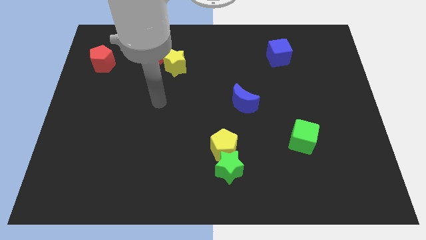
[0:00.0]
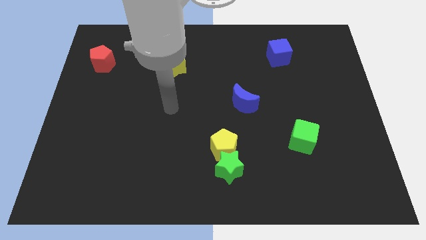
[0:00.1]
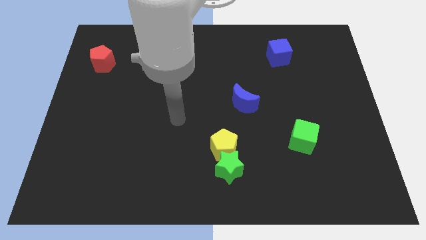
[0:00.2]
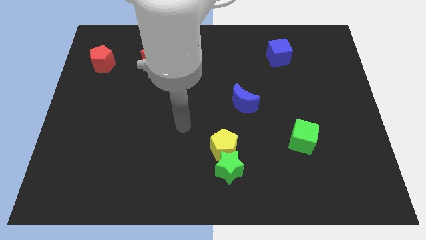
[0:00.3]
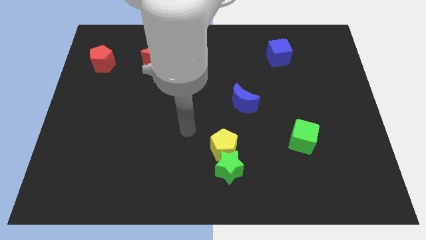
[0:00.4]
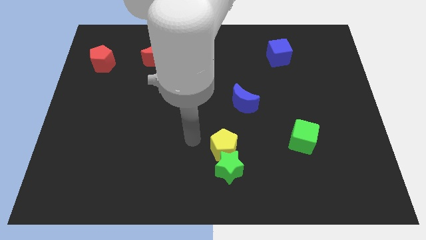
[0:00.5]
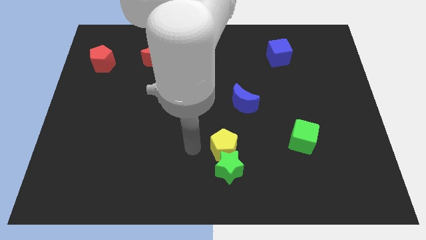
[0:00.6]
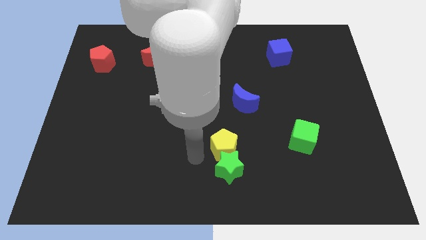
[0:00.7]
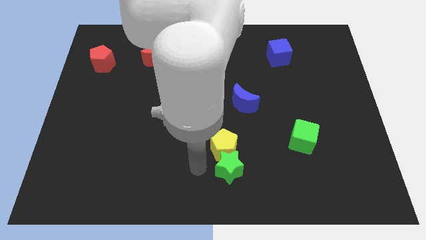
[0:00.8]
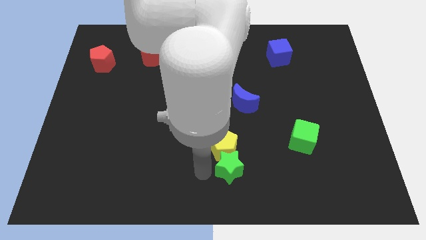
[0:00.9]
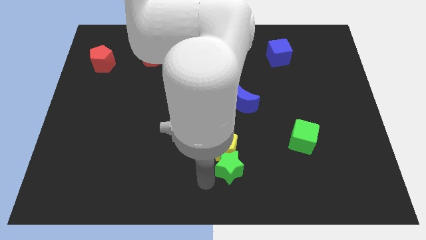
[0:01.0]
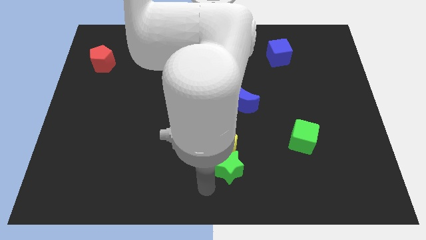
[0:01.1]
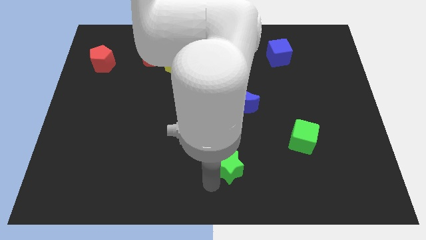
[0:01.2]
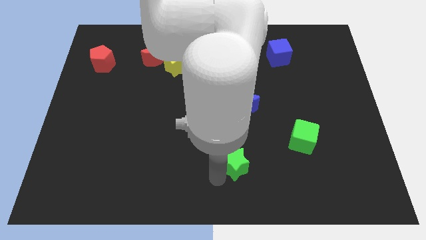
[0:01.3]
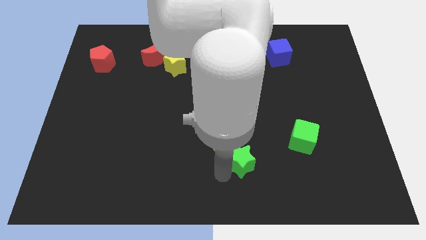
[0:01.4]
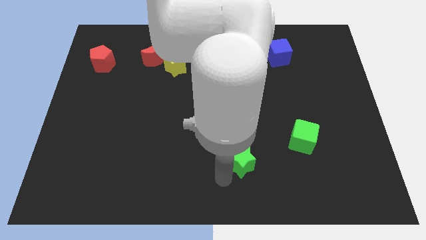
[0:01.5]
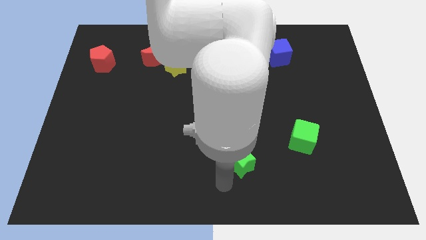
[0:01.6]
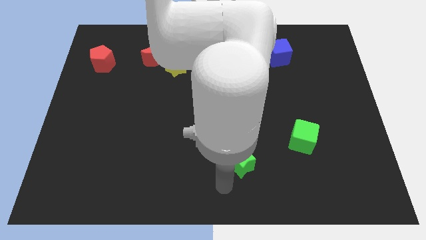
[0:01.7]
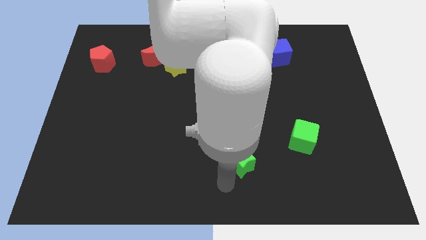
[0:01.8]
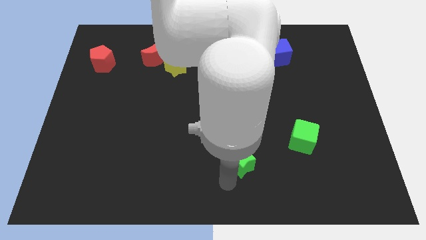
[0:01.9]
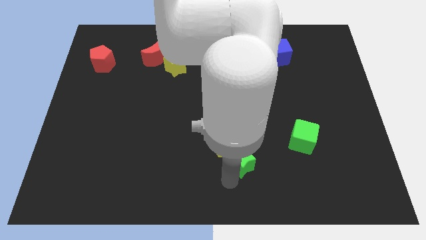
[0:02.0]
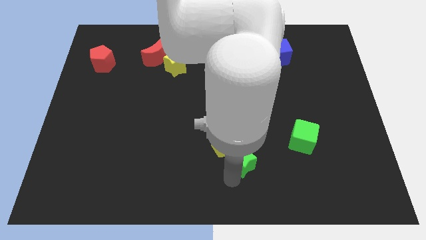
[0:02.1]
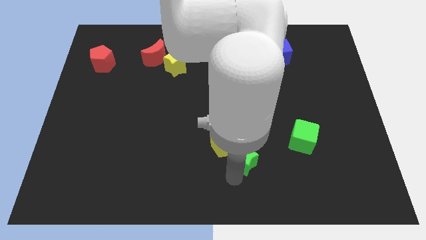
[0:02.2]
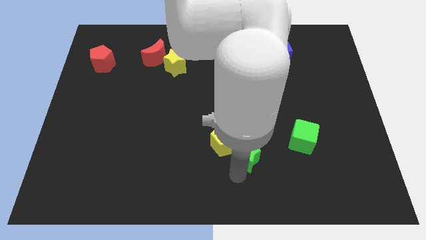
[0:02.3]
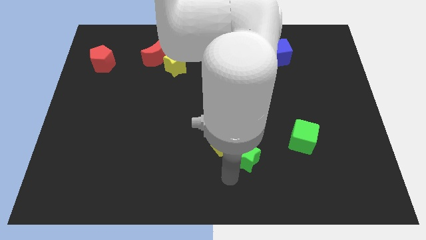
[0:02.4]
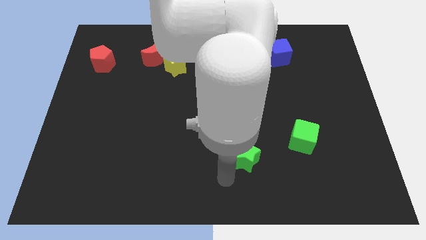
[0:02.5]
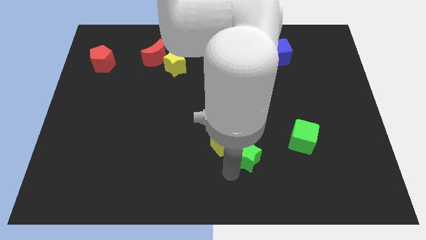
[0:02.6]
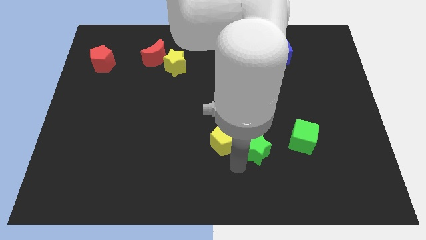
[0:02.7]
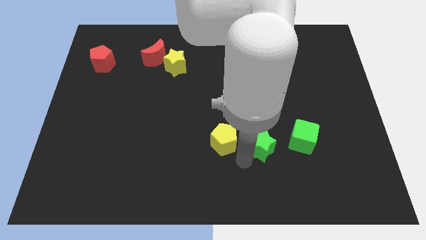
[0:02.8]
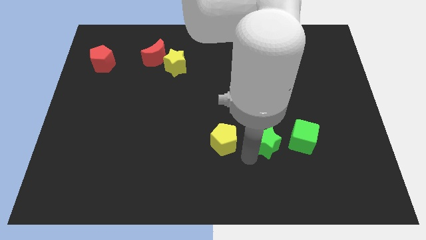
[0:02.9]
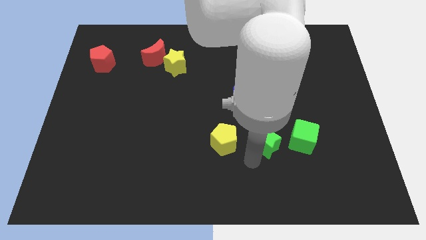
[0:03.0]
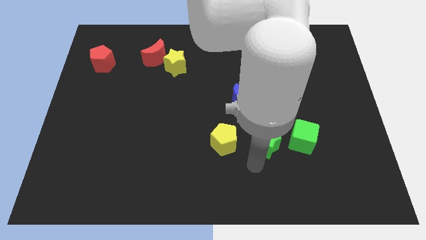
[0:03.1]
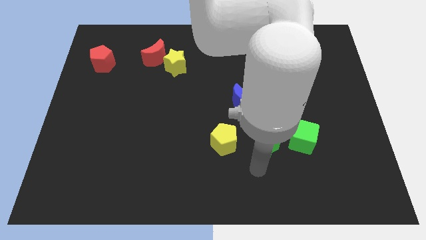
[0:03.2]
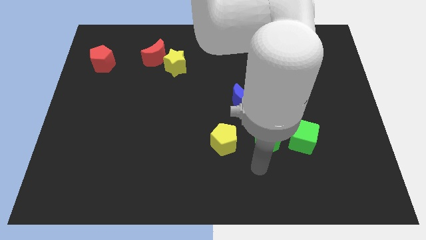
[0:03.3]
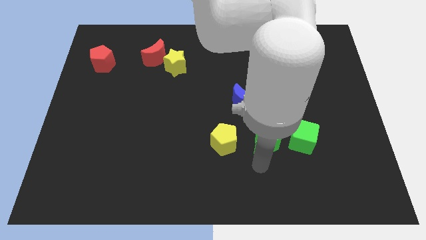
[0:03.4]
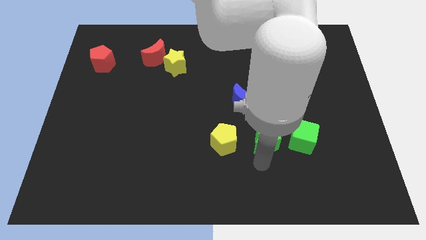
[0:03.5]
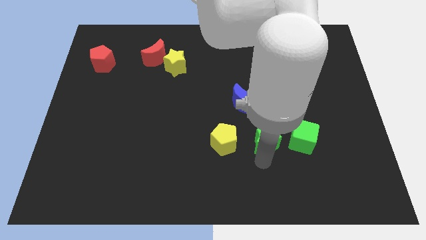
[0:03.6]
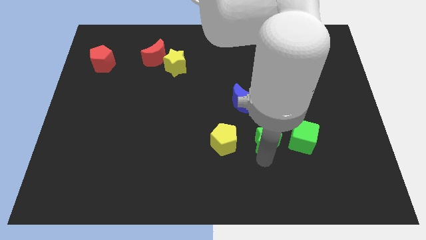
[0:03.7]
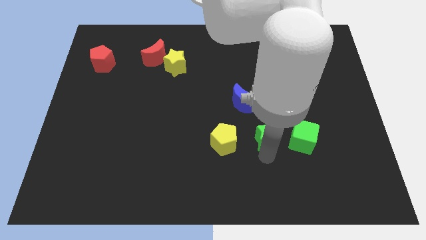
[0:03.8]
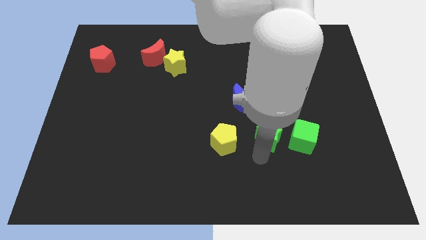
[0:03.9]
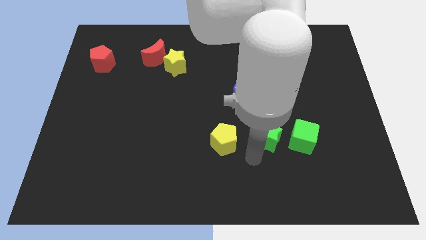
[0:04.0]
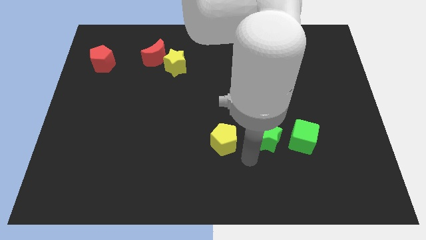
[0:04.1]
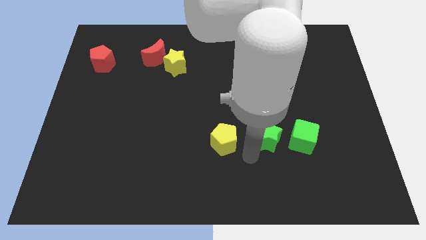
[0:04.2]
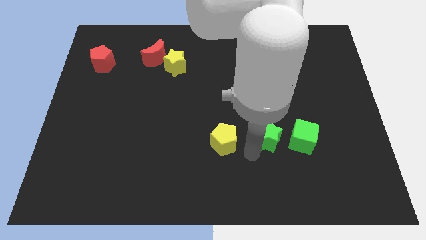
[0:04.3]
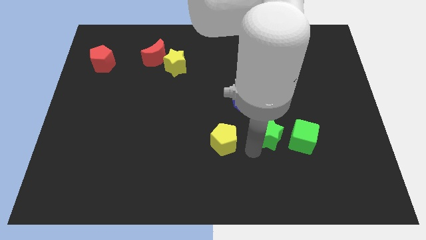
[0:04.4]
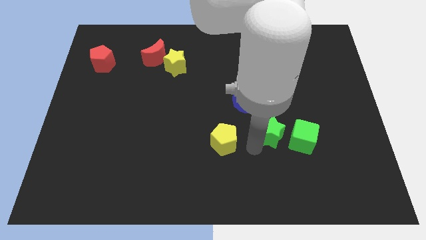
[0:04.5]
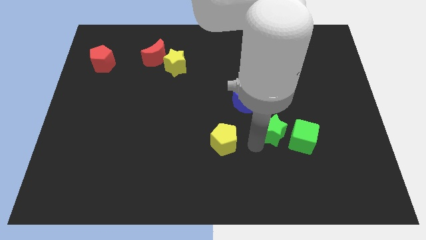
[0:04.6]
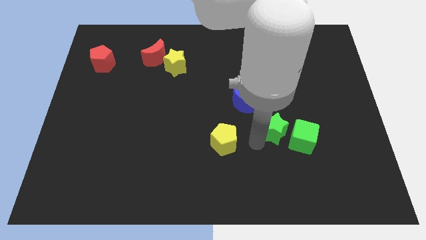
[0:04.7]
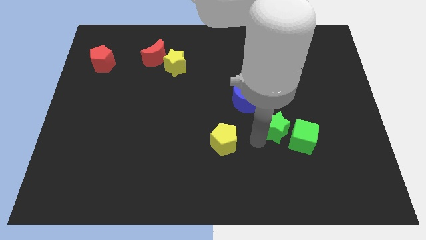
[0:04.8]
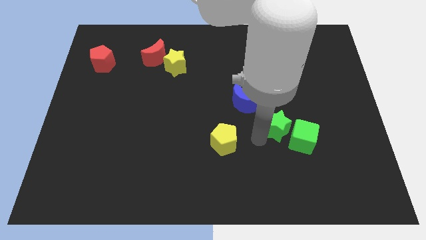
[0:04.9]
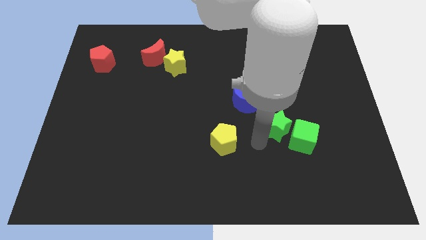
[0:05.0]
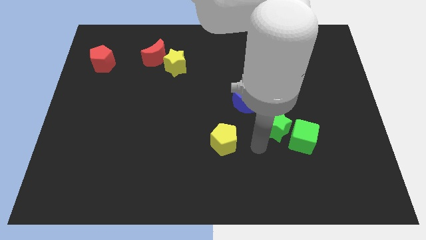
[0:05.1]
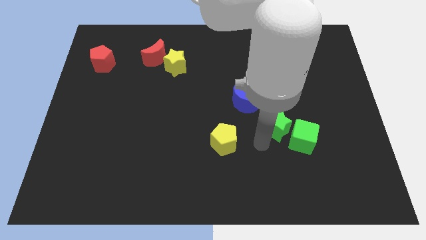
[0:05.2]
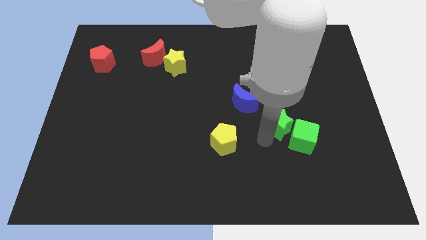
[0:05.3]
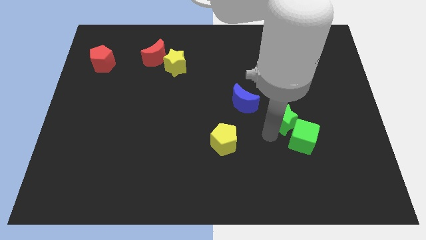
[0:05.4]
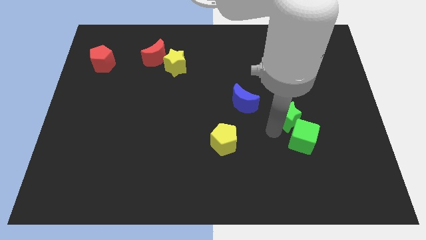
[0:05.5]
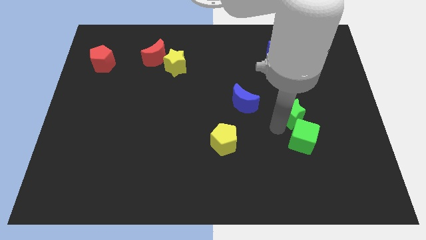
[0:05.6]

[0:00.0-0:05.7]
push the green star upwards and then to the right

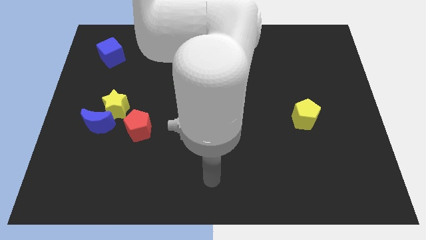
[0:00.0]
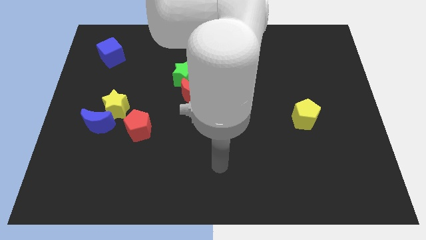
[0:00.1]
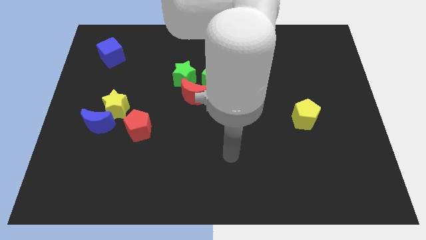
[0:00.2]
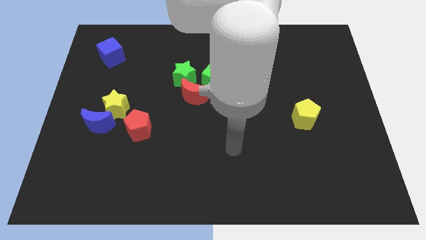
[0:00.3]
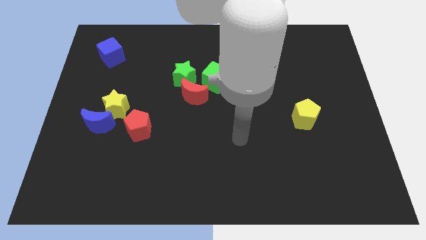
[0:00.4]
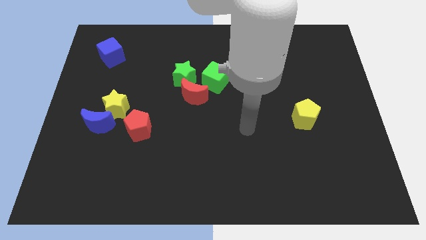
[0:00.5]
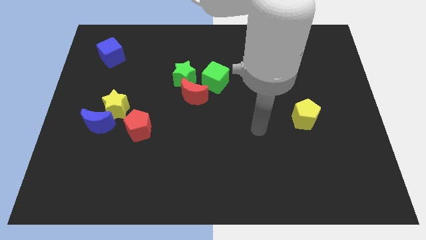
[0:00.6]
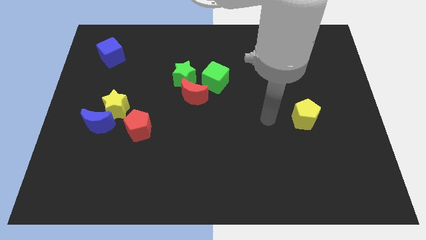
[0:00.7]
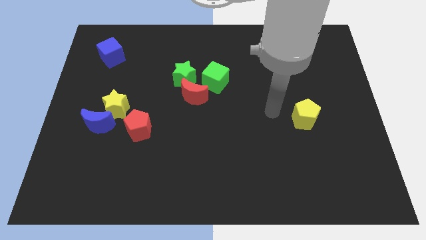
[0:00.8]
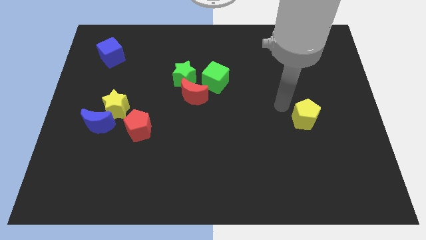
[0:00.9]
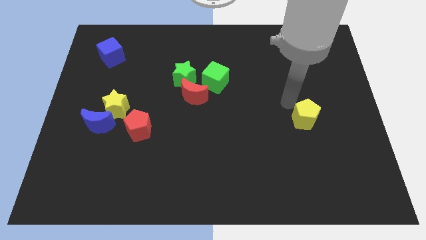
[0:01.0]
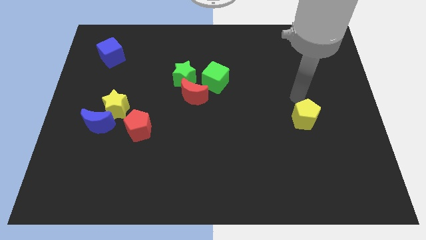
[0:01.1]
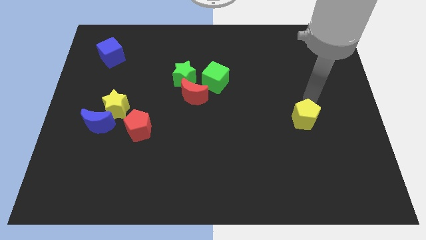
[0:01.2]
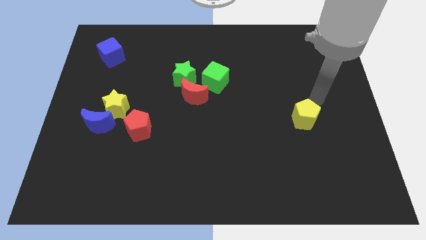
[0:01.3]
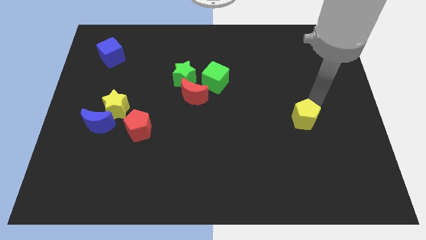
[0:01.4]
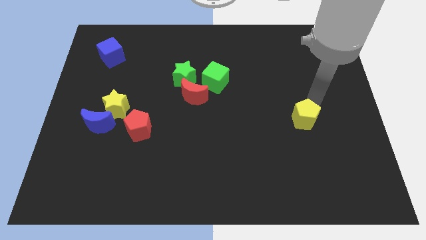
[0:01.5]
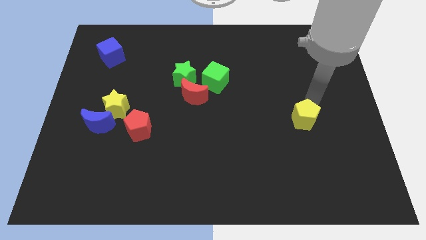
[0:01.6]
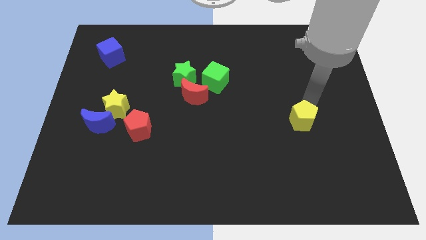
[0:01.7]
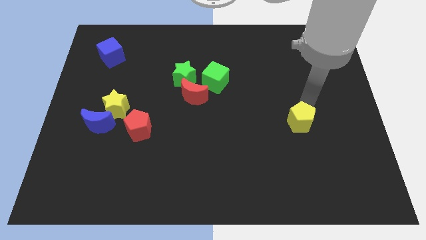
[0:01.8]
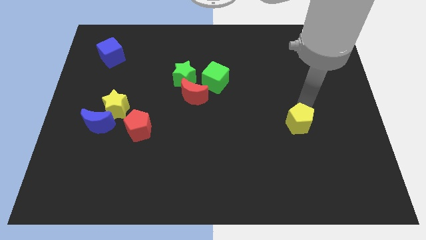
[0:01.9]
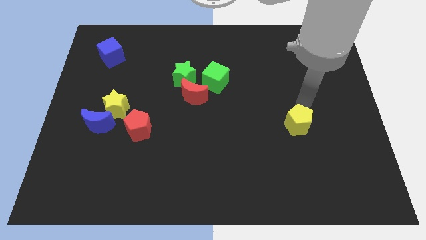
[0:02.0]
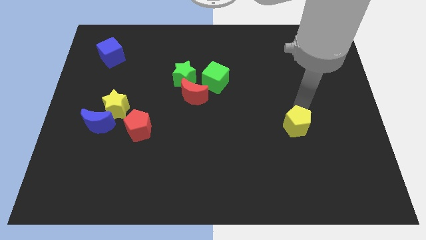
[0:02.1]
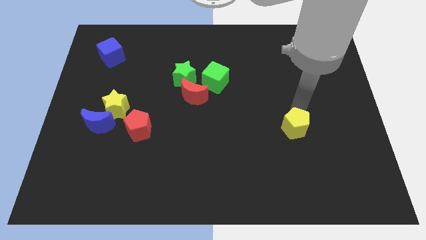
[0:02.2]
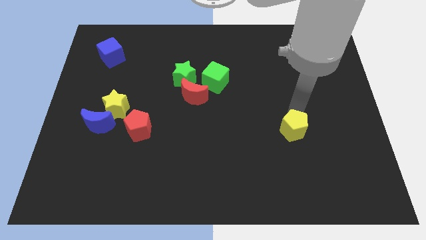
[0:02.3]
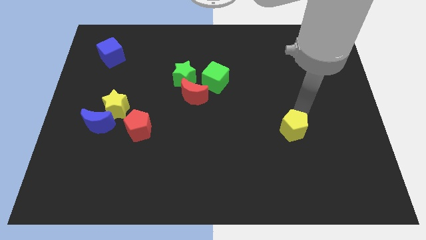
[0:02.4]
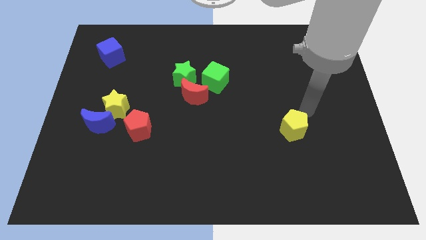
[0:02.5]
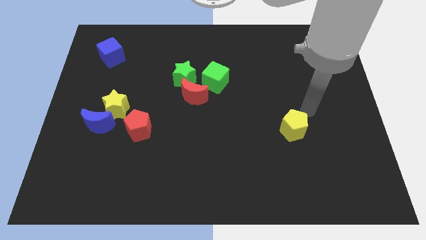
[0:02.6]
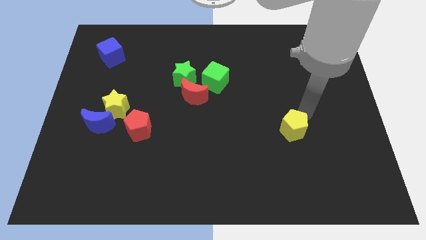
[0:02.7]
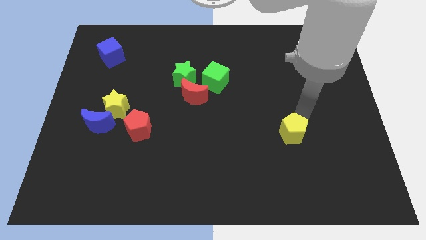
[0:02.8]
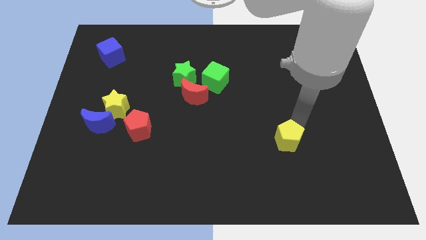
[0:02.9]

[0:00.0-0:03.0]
push the yellow pentagon downwards and then left a bit
